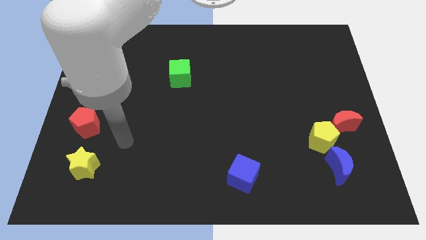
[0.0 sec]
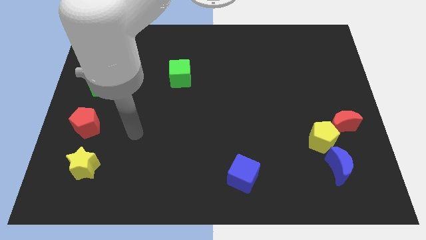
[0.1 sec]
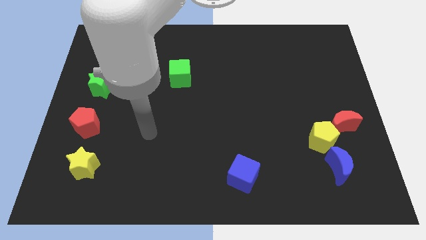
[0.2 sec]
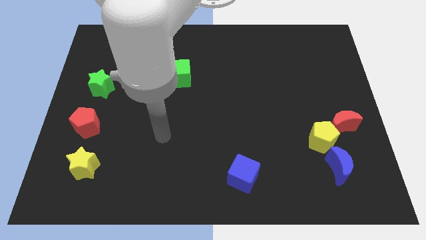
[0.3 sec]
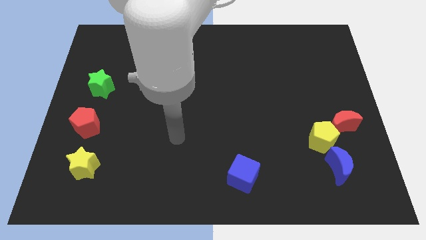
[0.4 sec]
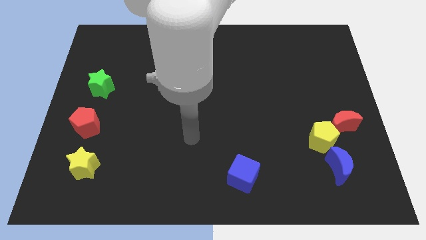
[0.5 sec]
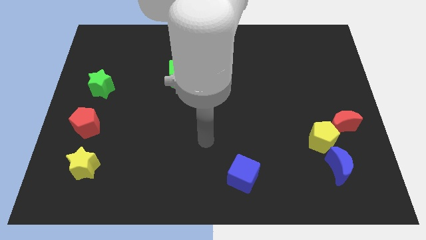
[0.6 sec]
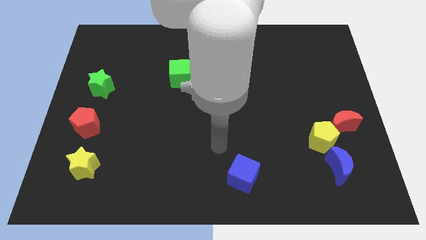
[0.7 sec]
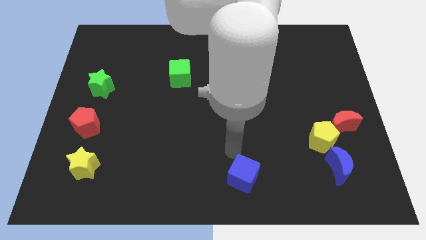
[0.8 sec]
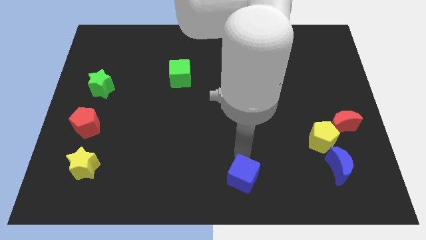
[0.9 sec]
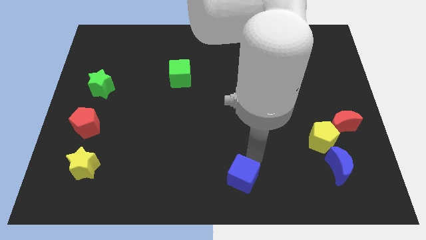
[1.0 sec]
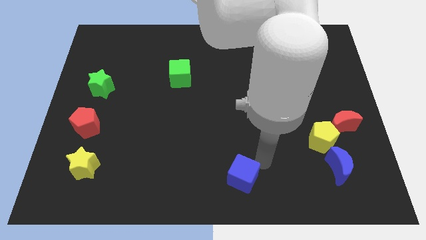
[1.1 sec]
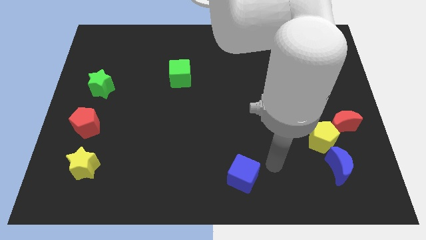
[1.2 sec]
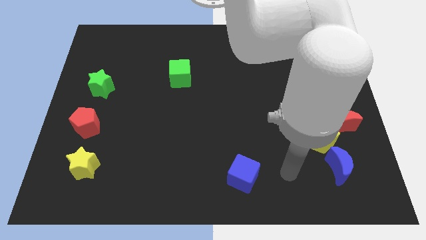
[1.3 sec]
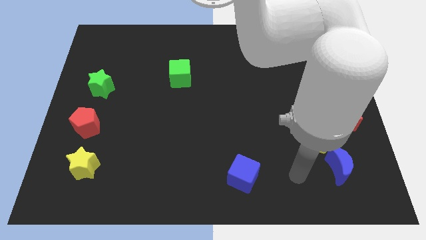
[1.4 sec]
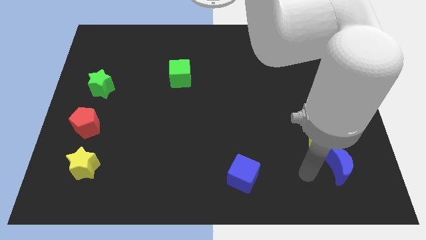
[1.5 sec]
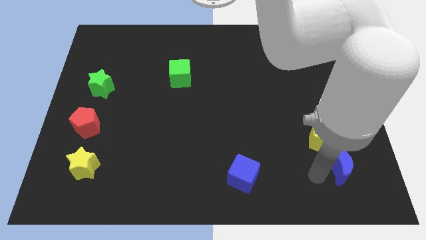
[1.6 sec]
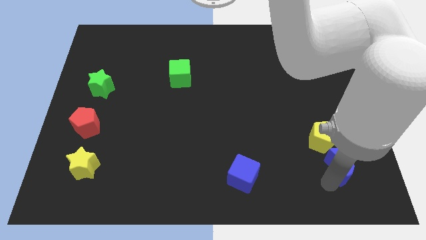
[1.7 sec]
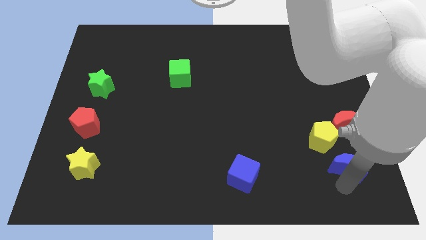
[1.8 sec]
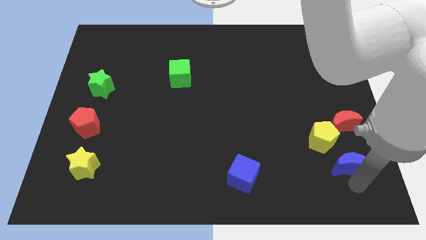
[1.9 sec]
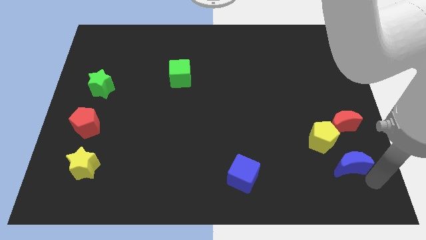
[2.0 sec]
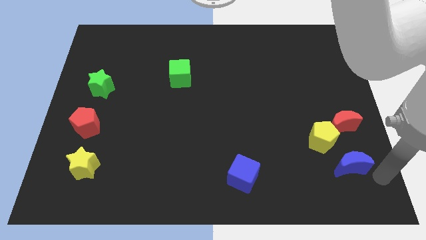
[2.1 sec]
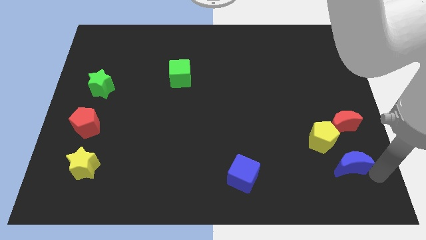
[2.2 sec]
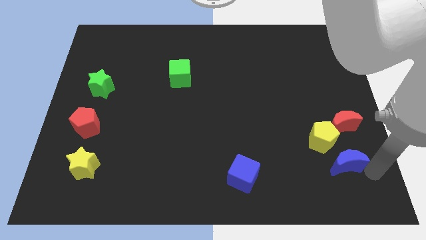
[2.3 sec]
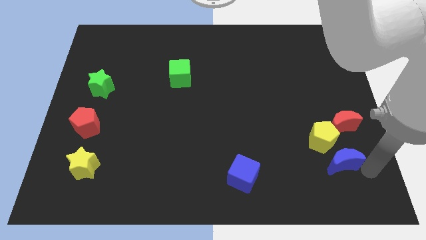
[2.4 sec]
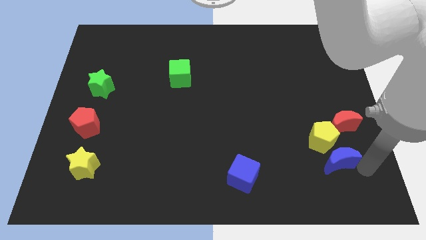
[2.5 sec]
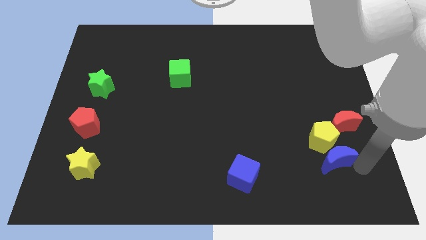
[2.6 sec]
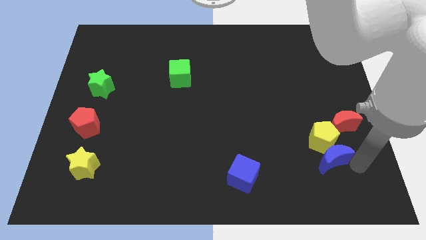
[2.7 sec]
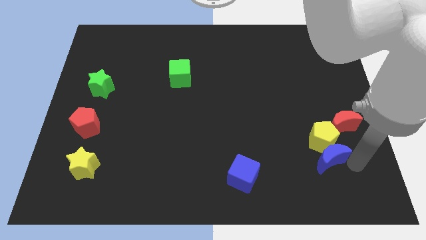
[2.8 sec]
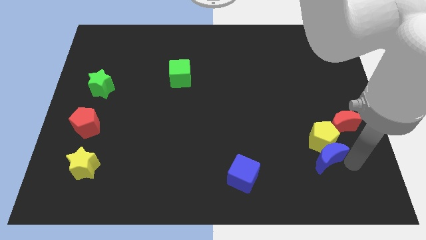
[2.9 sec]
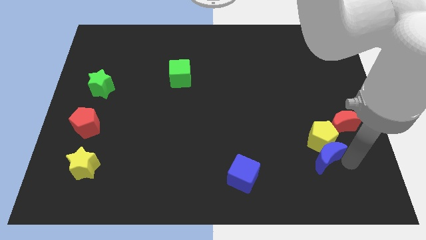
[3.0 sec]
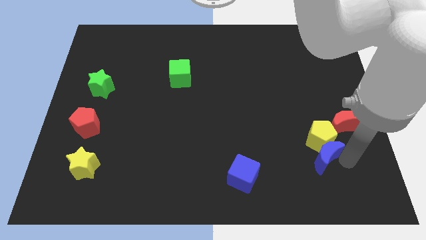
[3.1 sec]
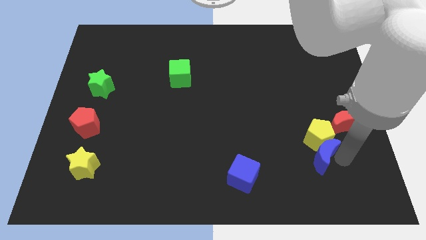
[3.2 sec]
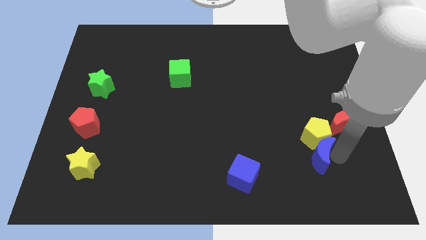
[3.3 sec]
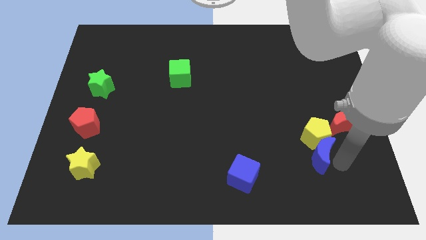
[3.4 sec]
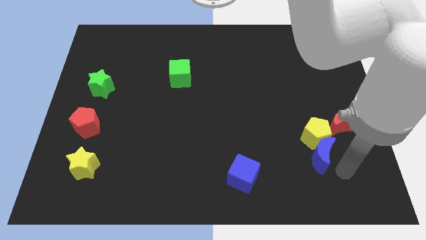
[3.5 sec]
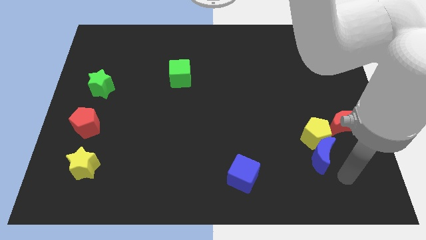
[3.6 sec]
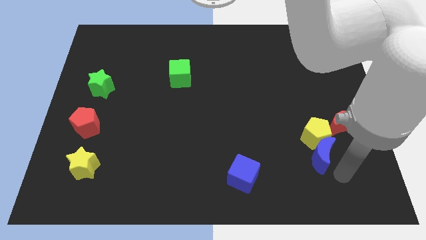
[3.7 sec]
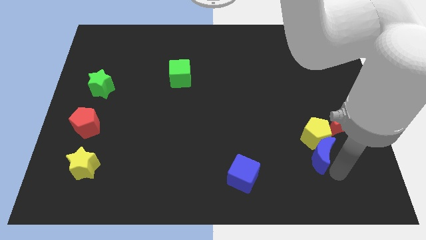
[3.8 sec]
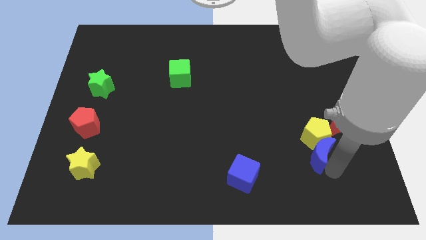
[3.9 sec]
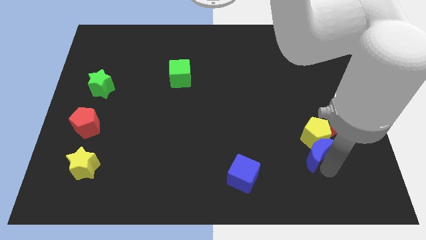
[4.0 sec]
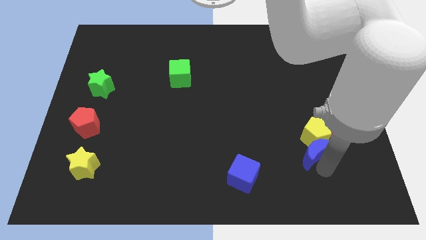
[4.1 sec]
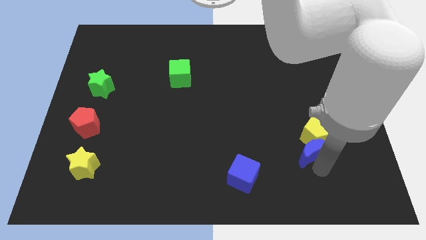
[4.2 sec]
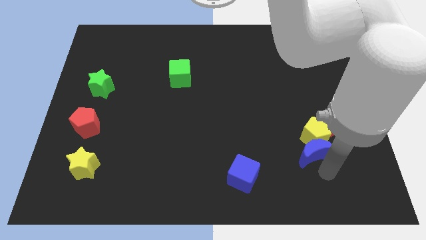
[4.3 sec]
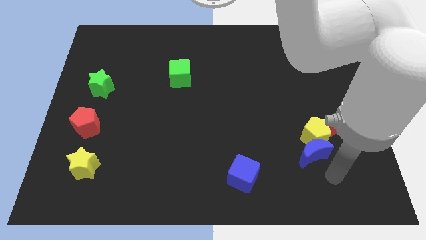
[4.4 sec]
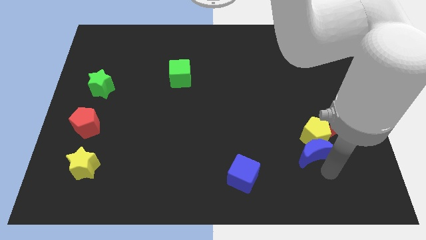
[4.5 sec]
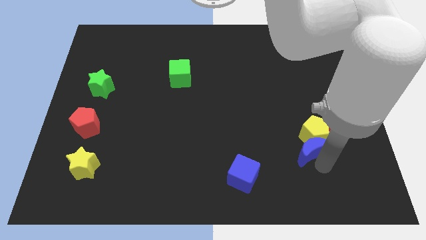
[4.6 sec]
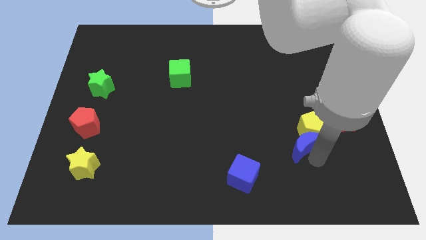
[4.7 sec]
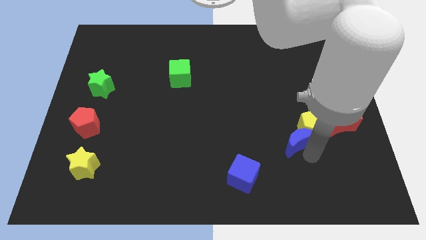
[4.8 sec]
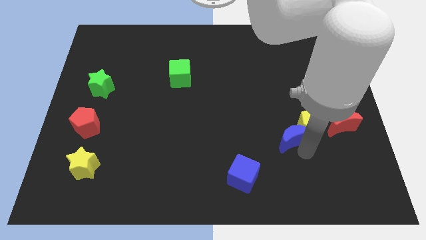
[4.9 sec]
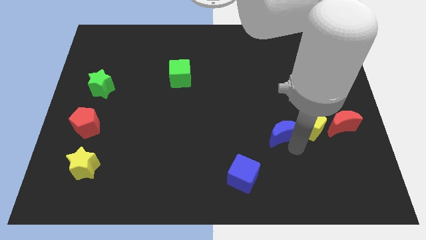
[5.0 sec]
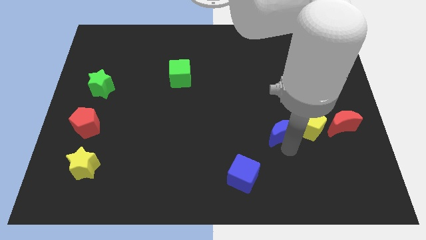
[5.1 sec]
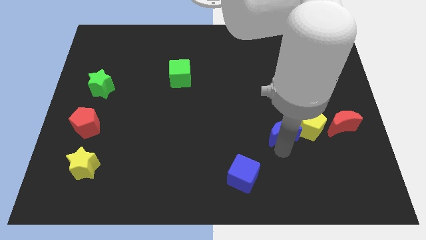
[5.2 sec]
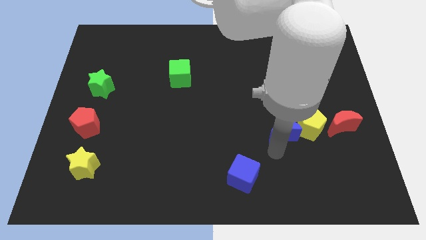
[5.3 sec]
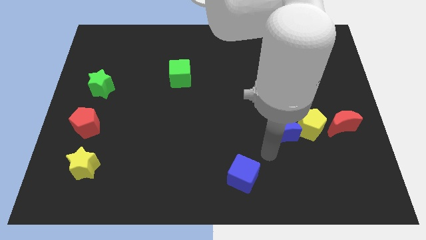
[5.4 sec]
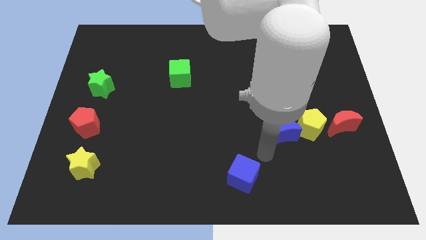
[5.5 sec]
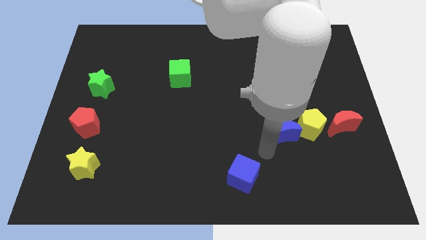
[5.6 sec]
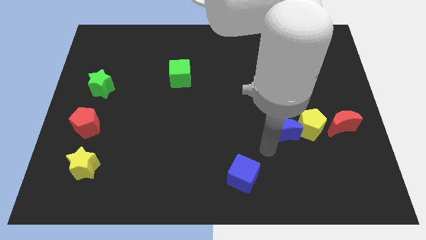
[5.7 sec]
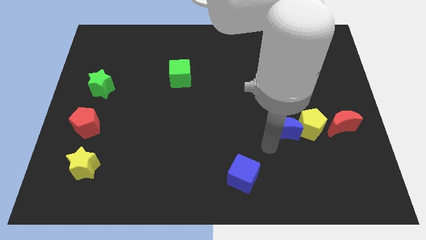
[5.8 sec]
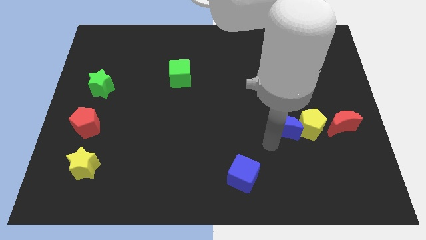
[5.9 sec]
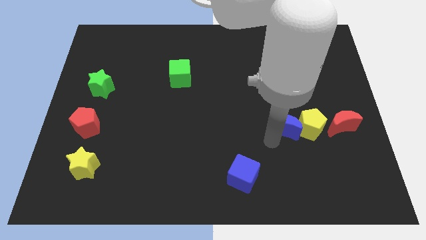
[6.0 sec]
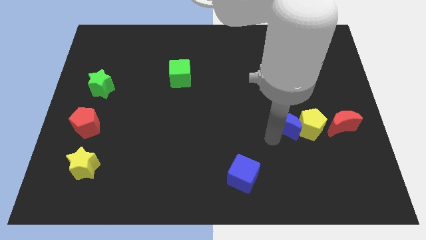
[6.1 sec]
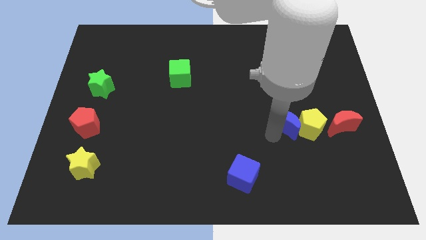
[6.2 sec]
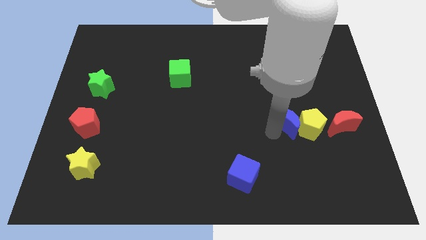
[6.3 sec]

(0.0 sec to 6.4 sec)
slide the blue moon up a little

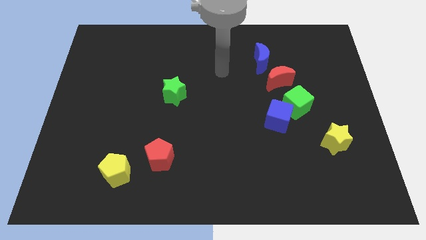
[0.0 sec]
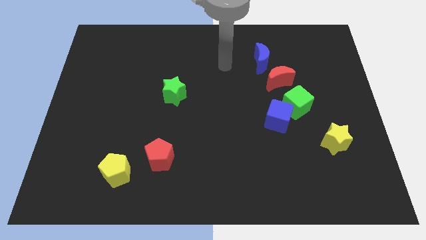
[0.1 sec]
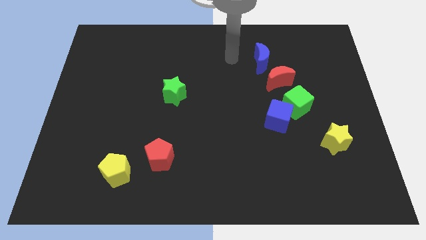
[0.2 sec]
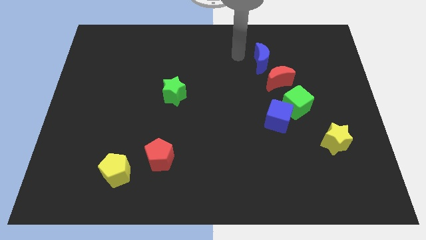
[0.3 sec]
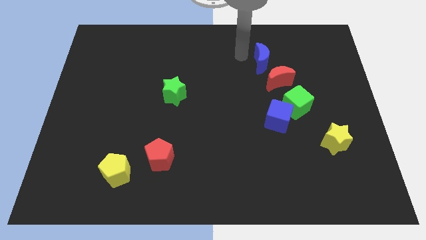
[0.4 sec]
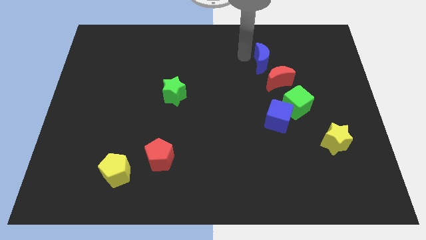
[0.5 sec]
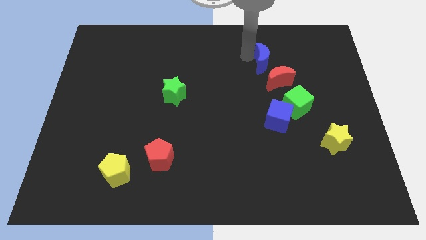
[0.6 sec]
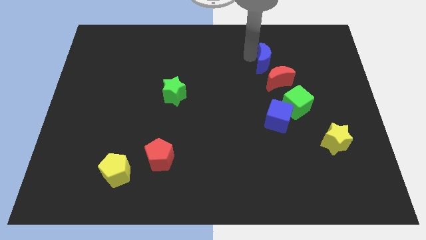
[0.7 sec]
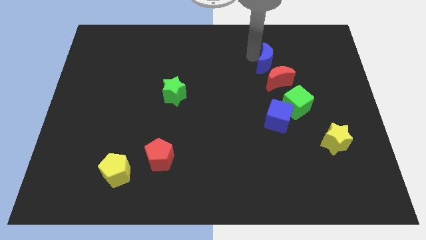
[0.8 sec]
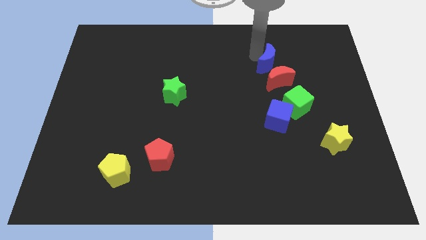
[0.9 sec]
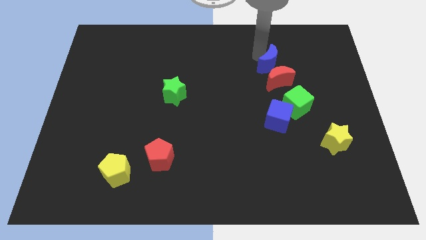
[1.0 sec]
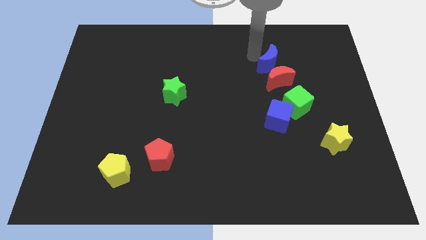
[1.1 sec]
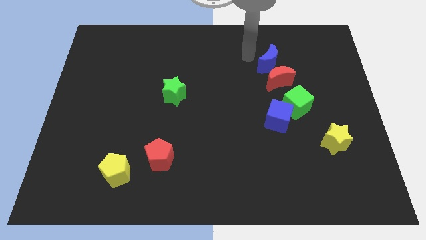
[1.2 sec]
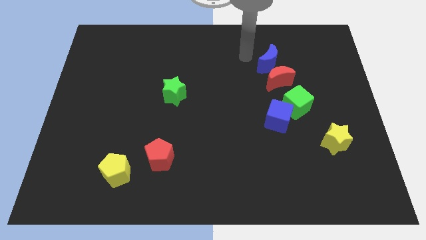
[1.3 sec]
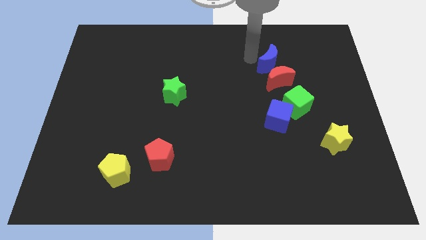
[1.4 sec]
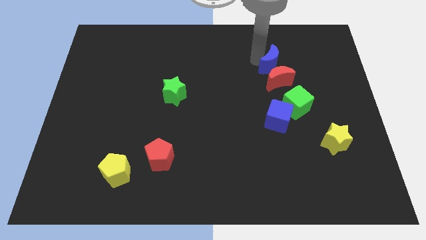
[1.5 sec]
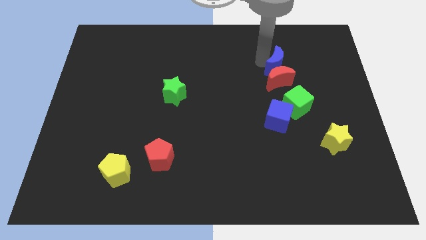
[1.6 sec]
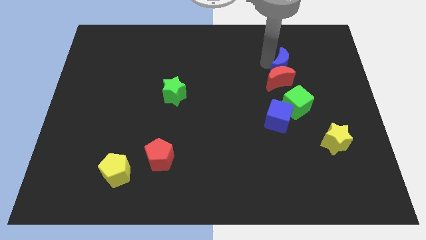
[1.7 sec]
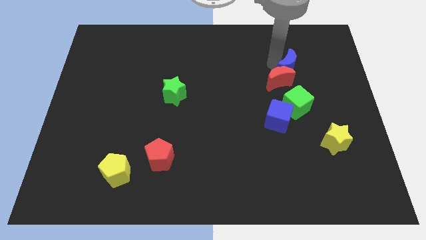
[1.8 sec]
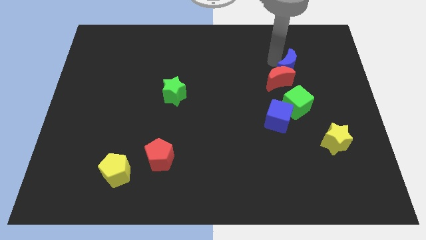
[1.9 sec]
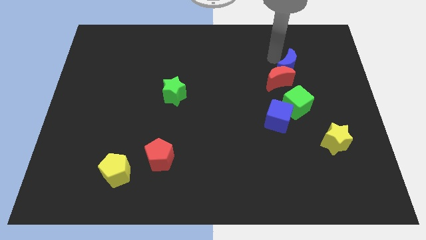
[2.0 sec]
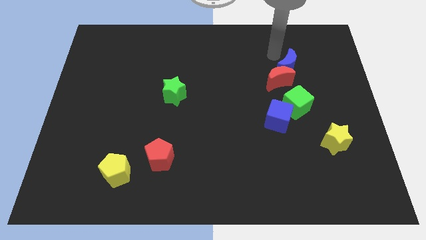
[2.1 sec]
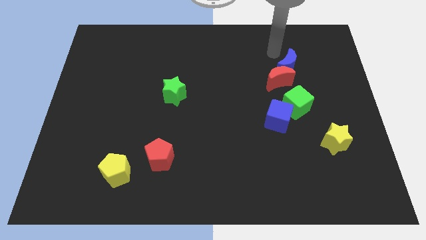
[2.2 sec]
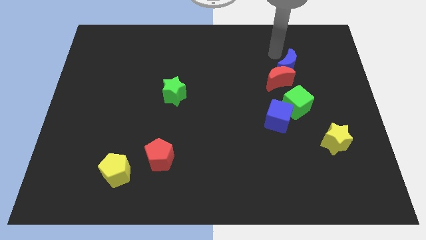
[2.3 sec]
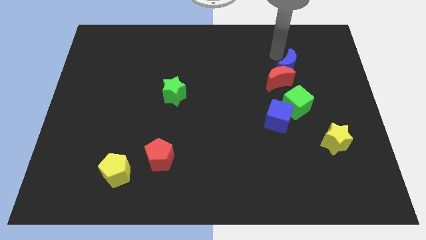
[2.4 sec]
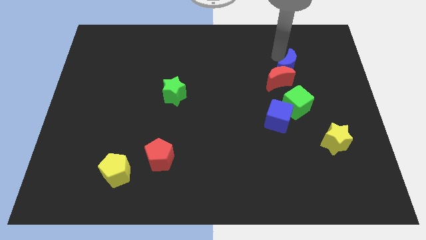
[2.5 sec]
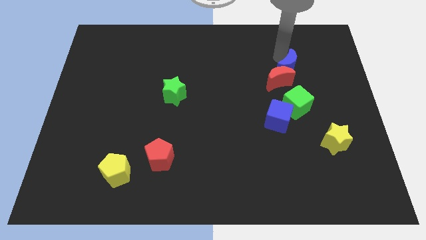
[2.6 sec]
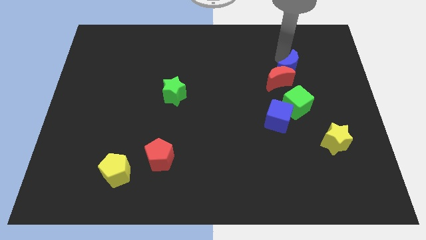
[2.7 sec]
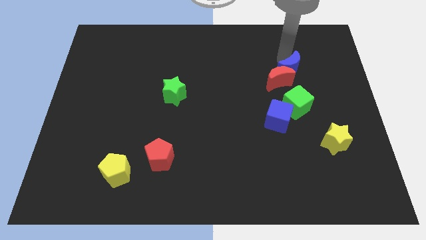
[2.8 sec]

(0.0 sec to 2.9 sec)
move the blue moon diagonally downwards and to the right a bit
